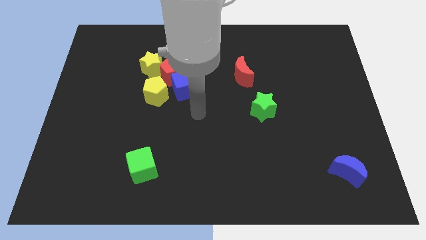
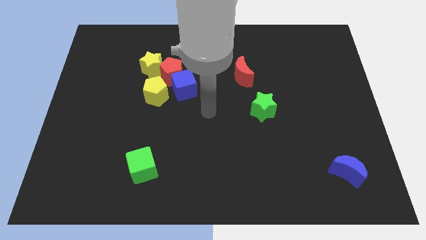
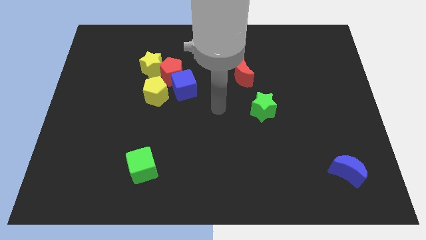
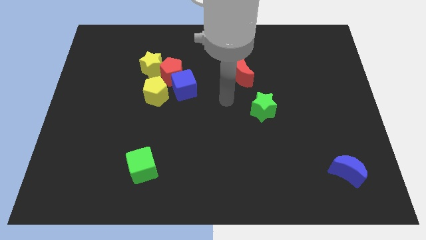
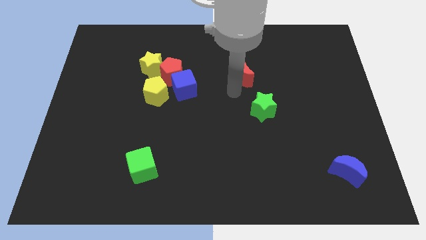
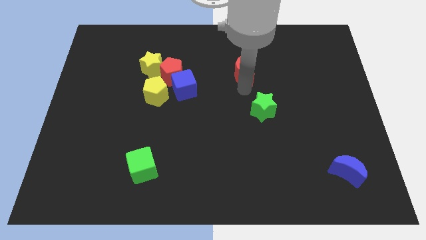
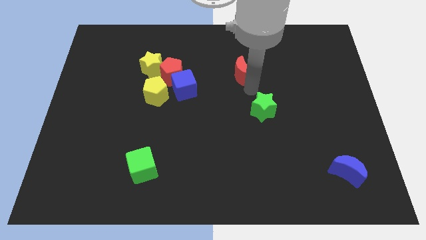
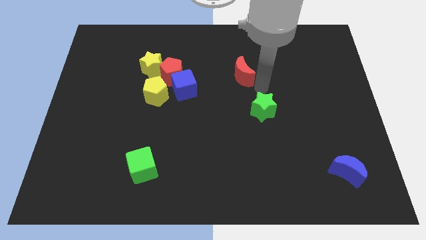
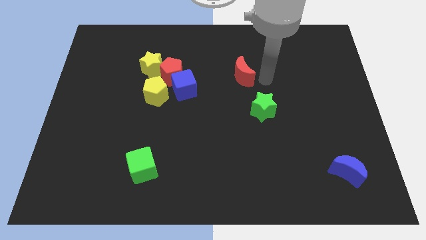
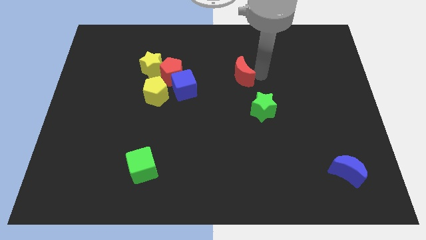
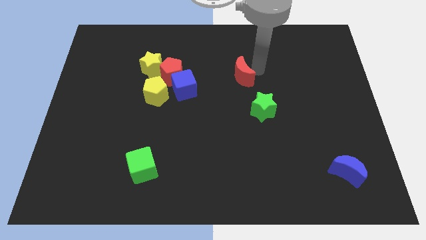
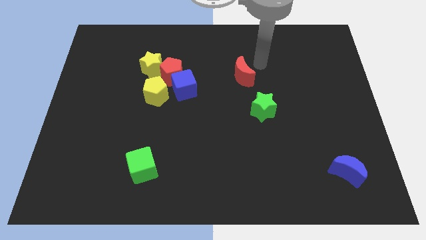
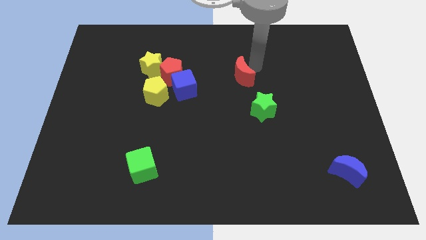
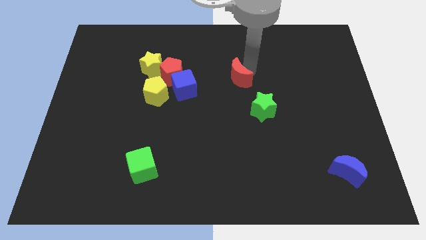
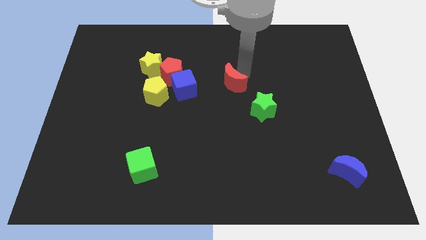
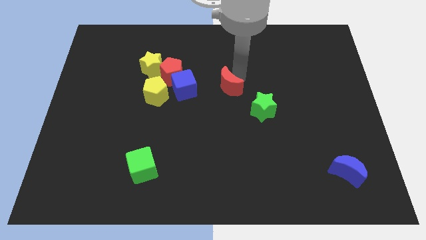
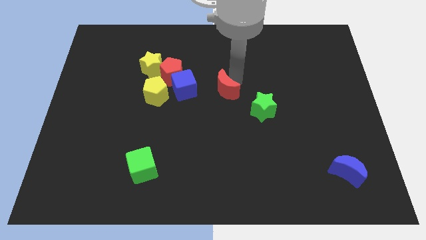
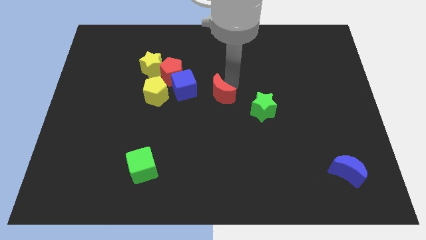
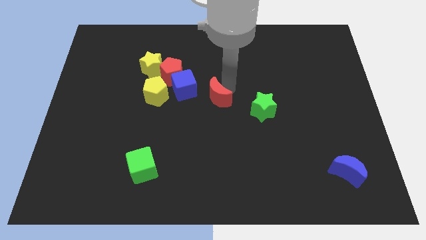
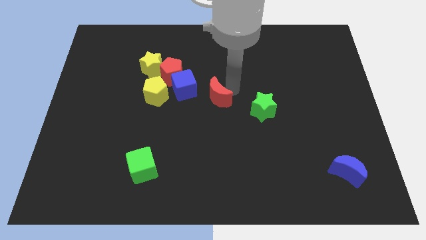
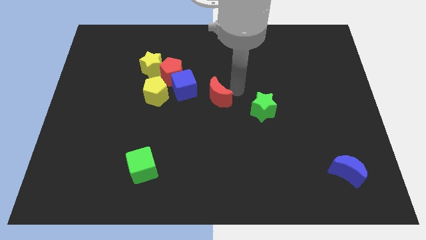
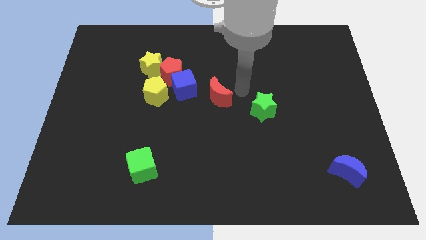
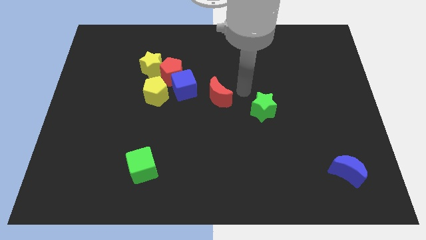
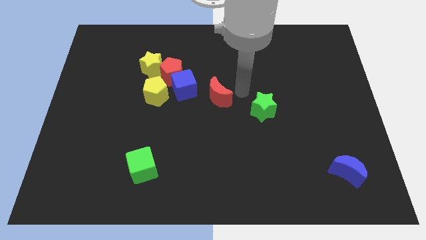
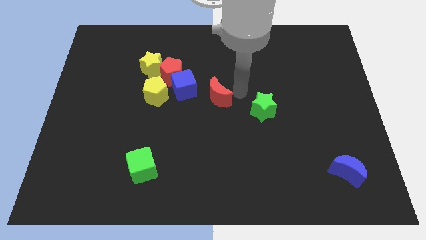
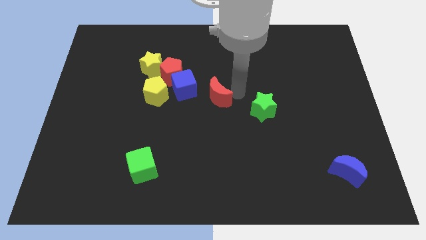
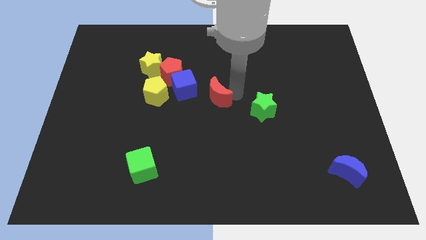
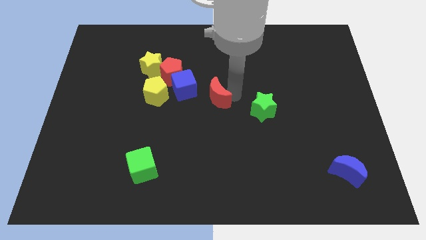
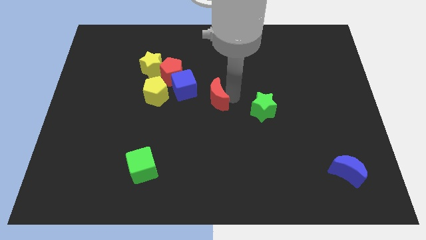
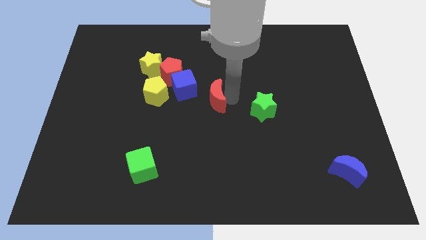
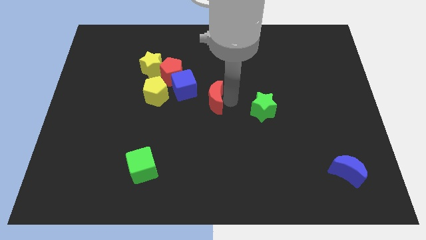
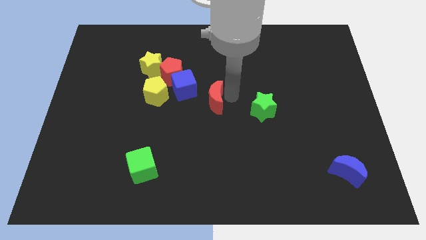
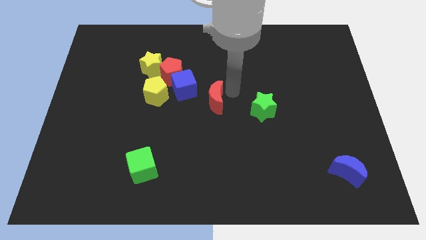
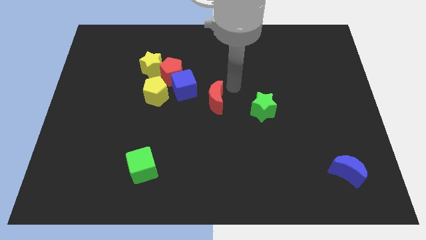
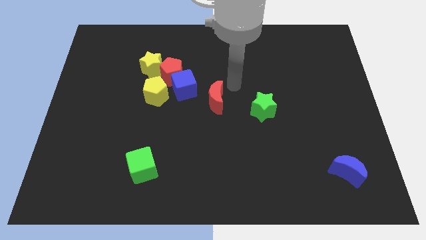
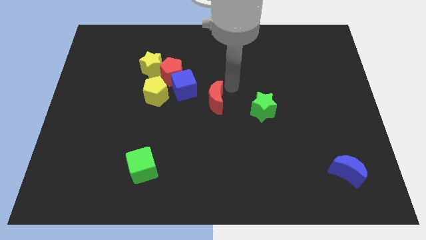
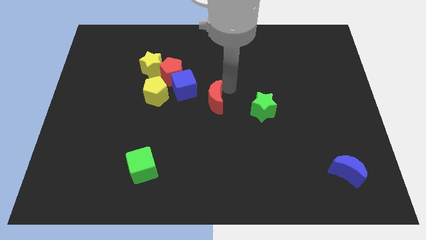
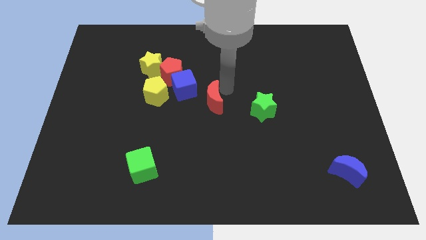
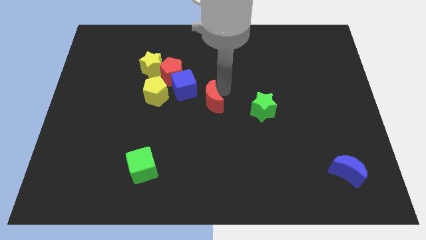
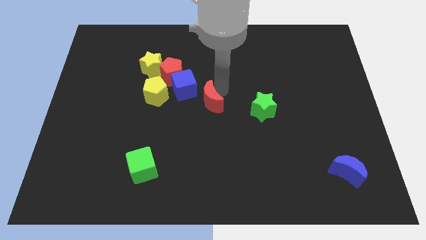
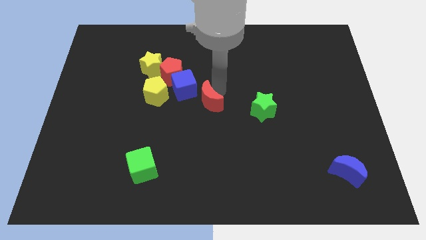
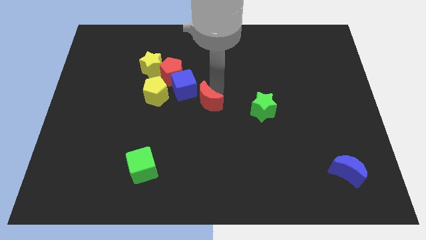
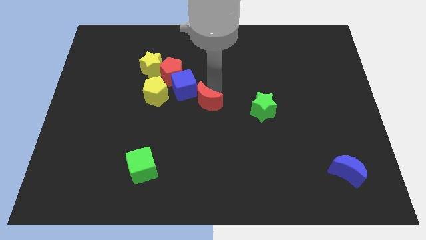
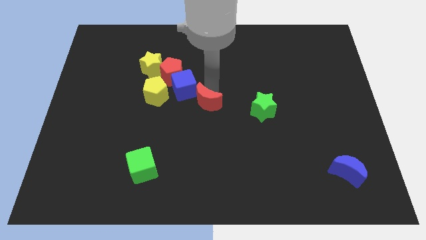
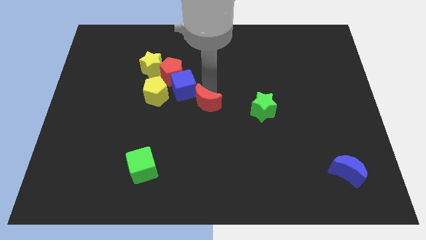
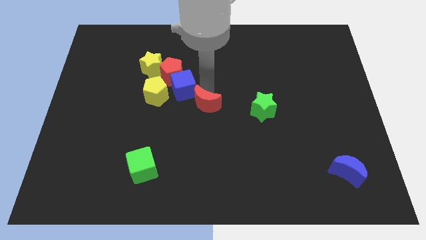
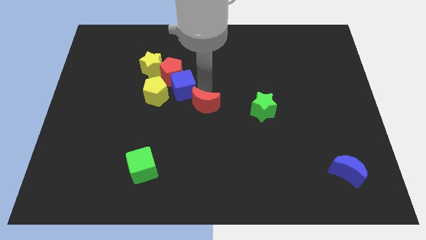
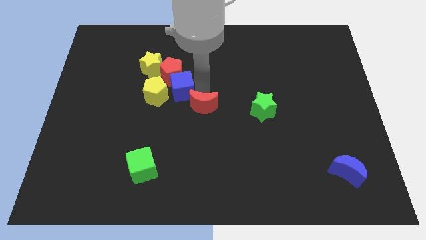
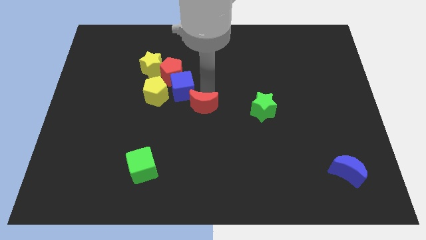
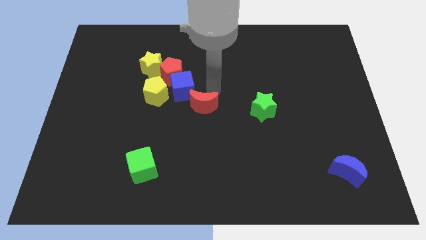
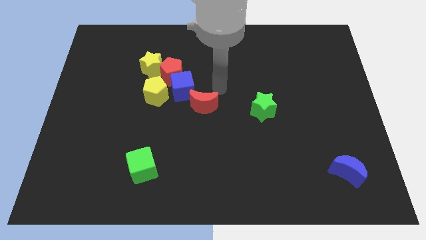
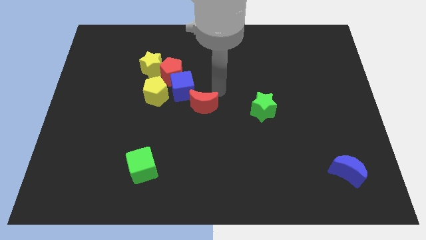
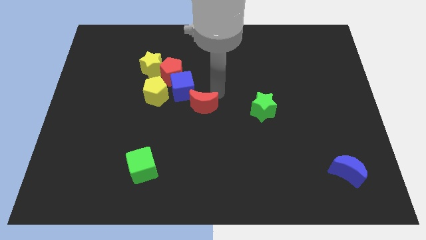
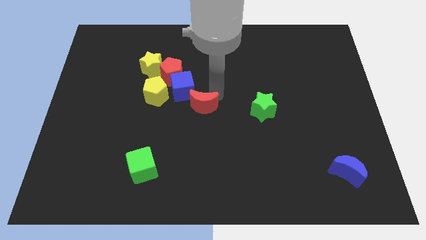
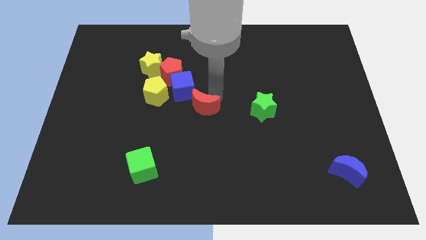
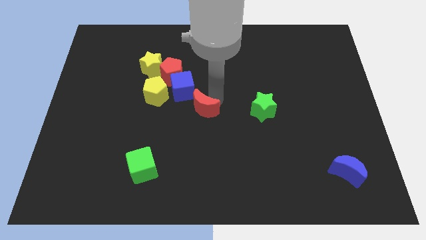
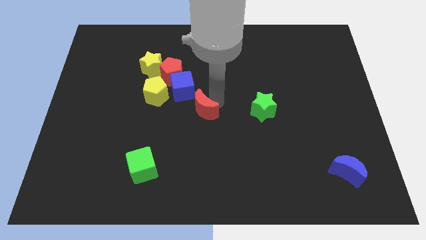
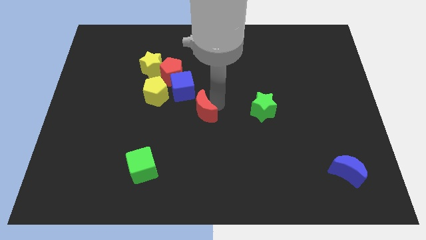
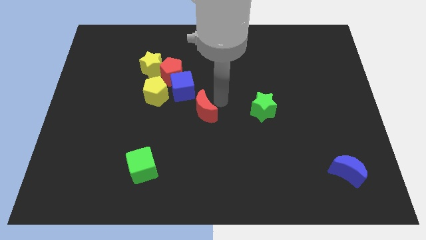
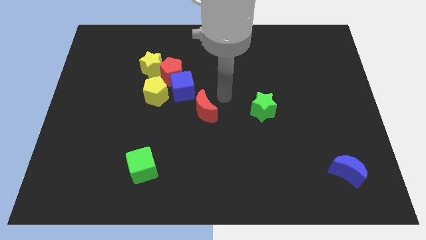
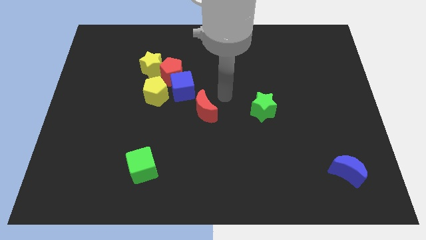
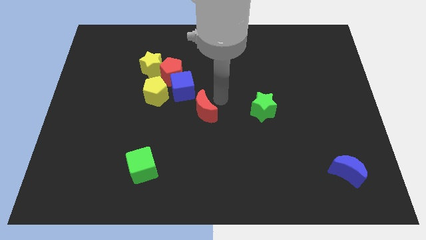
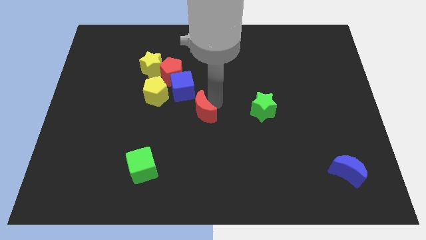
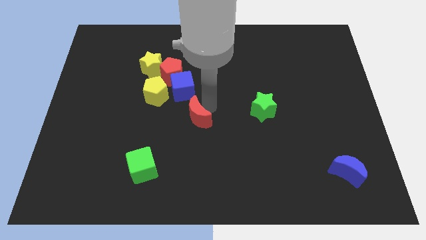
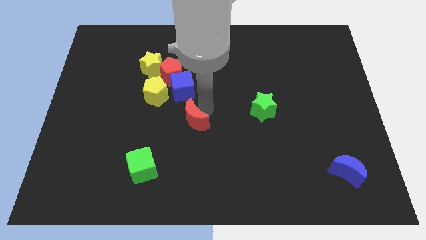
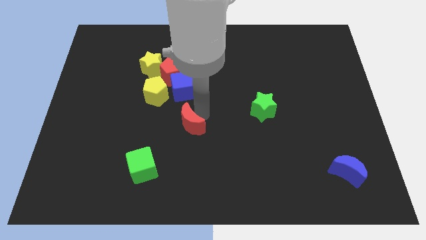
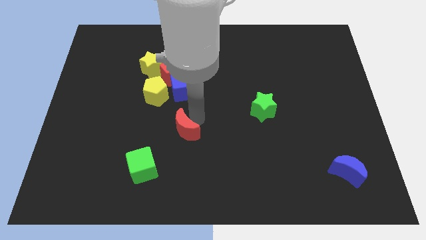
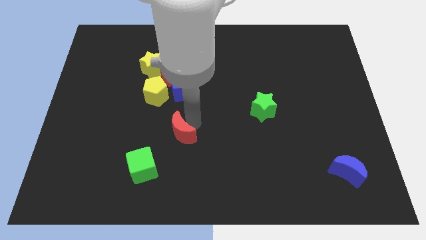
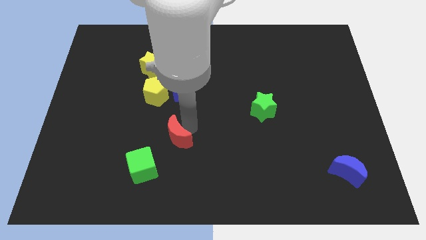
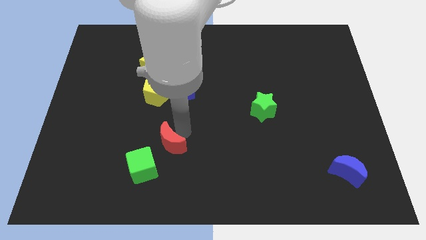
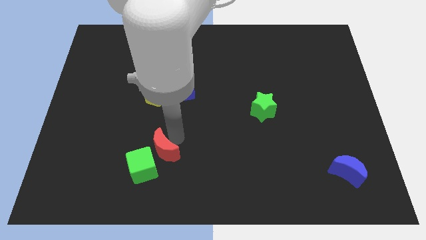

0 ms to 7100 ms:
put the red moon close to the green cube

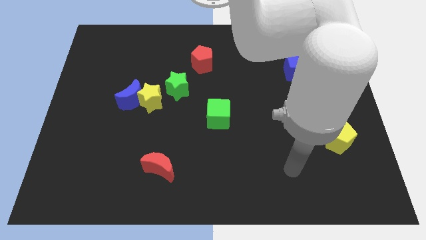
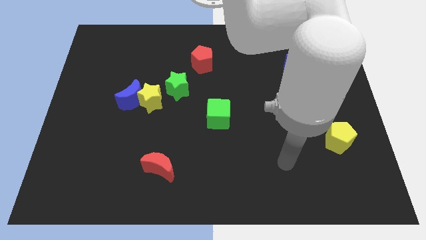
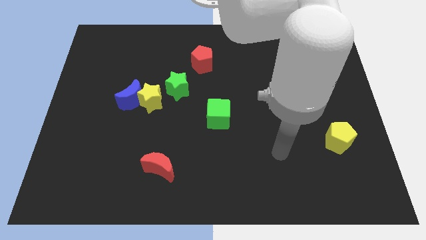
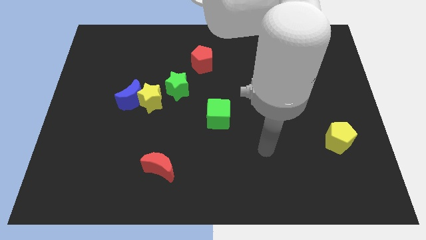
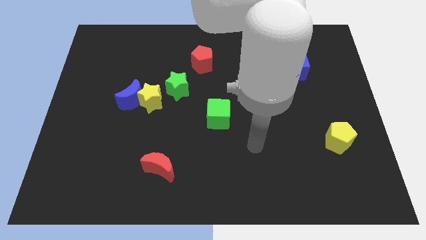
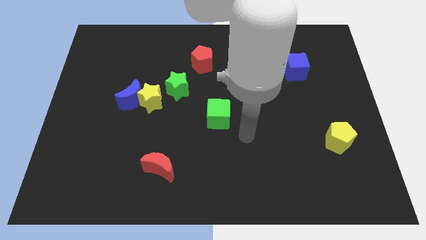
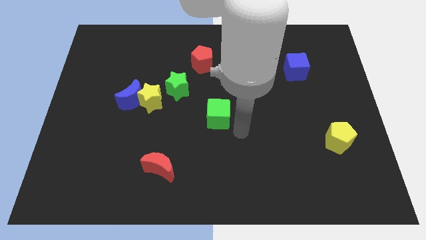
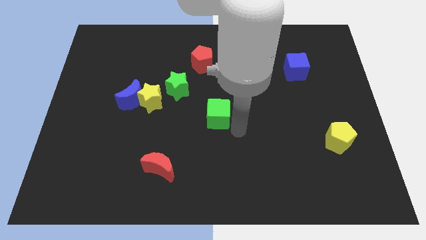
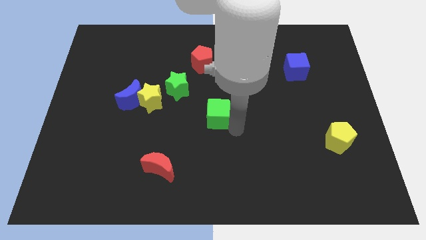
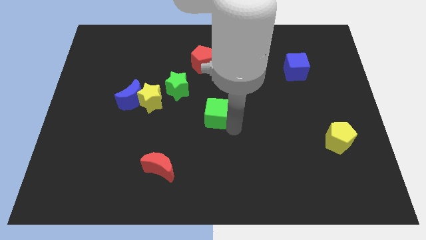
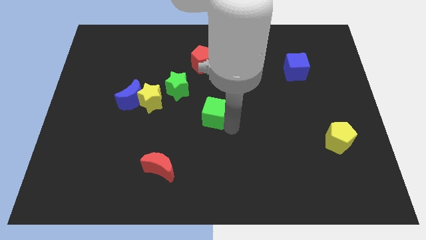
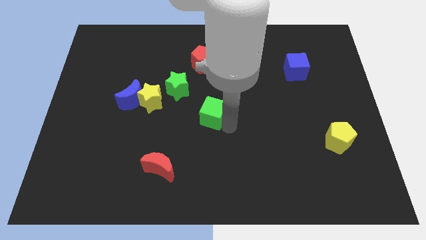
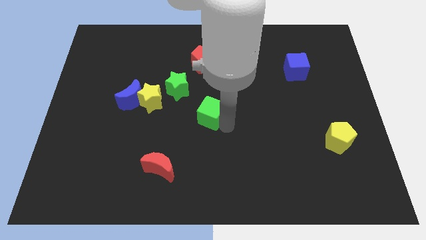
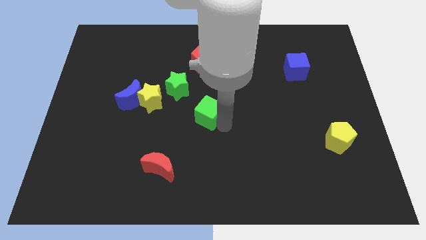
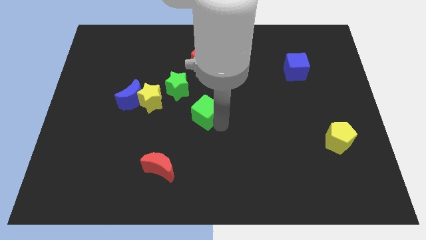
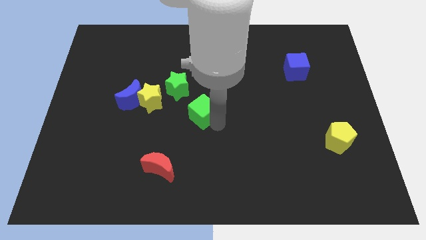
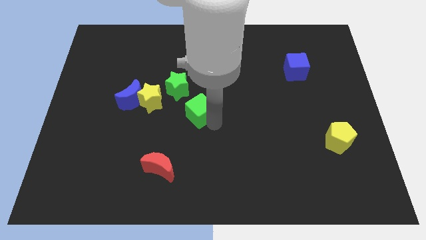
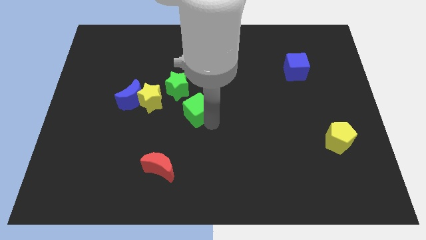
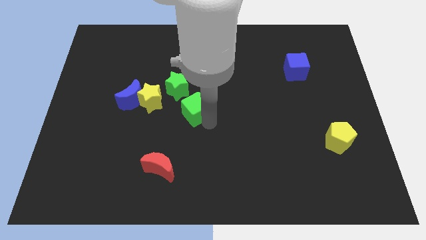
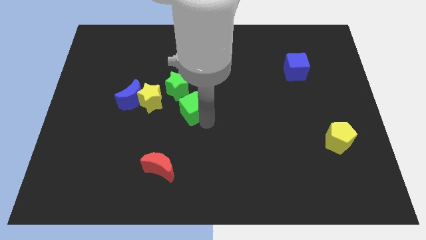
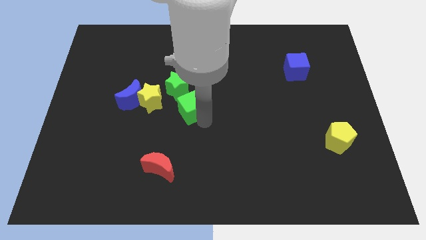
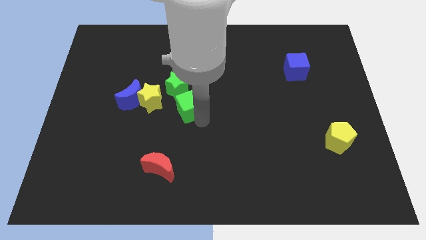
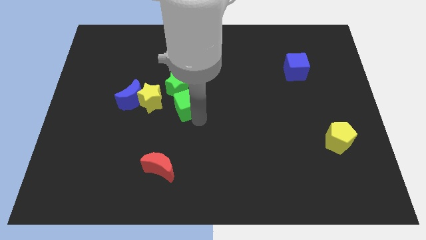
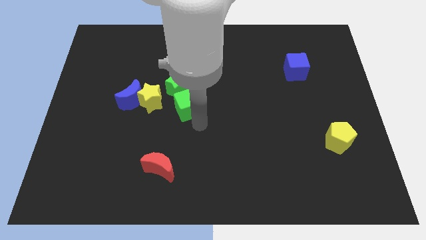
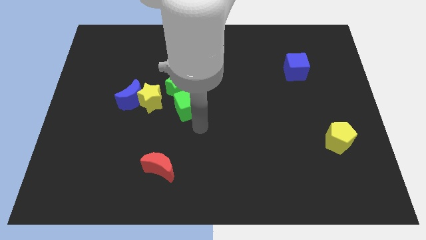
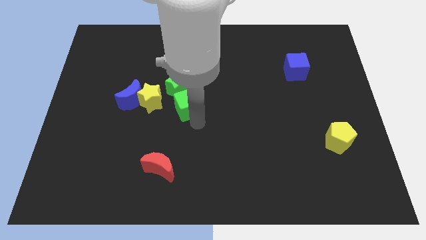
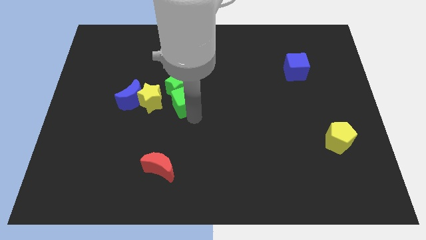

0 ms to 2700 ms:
slide the green cube next to the green star
